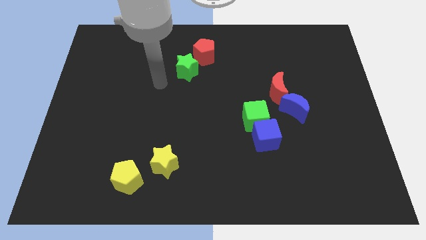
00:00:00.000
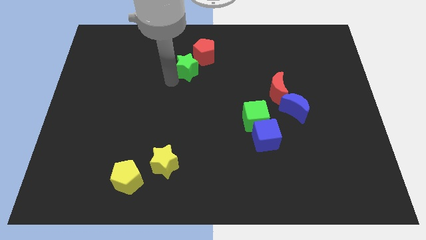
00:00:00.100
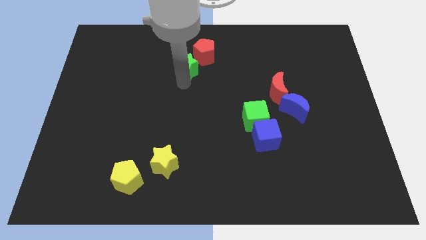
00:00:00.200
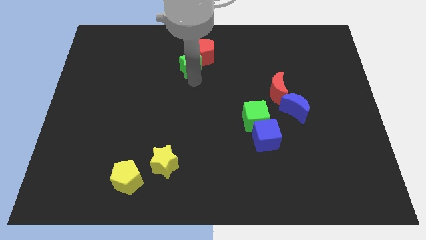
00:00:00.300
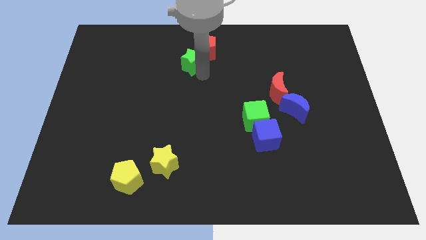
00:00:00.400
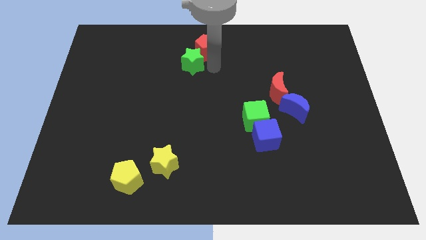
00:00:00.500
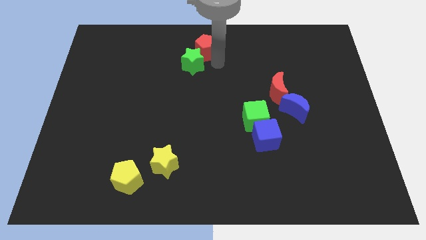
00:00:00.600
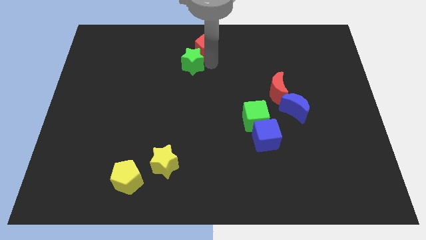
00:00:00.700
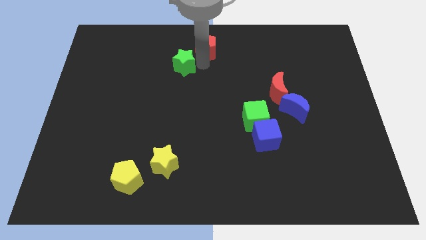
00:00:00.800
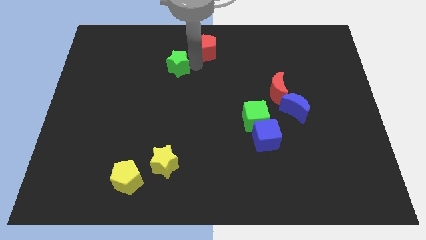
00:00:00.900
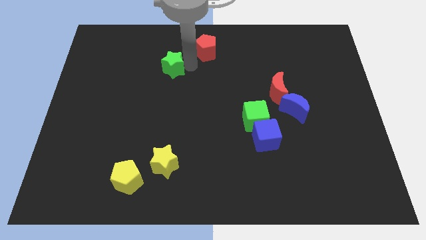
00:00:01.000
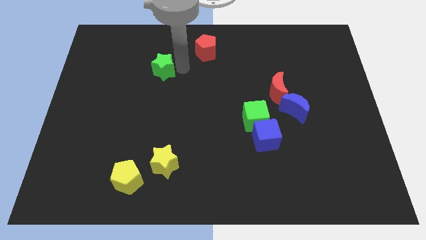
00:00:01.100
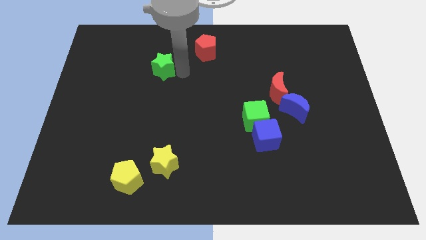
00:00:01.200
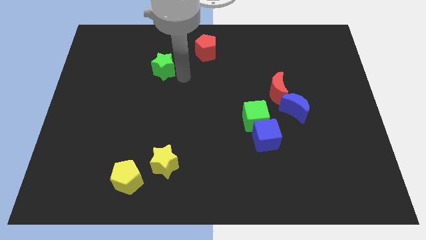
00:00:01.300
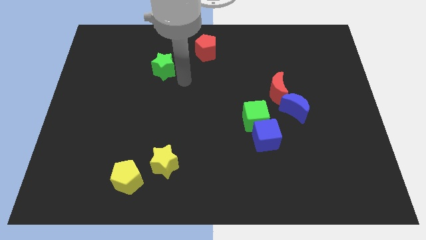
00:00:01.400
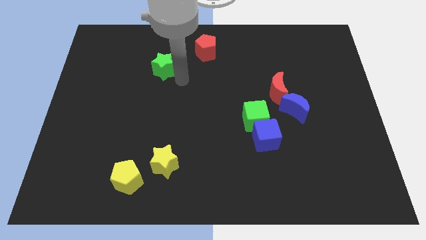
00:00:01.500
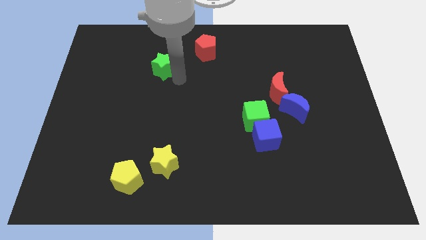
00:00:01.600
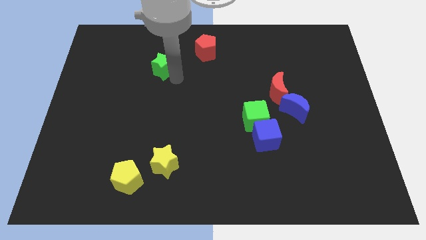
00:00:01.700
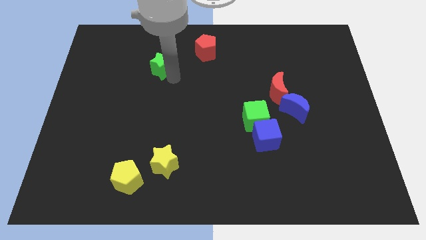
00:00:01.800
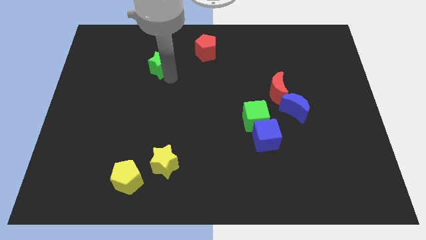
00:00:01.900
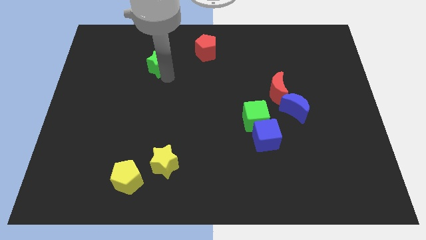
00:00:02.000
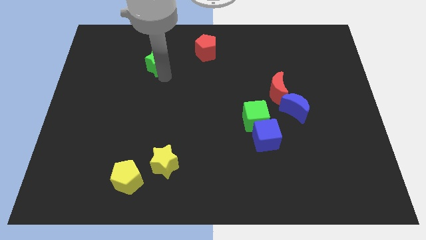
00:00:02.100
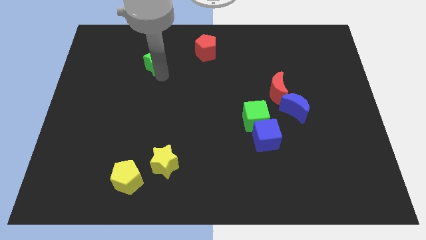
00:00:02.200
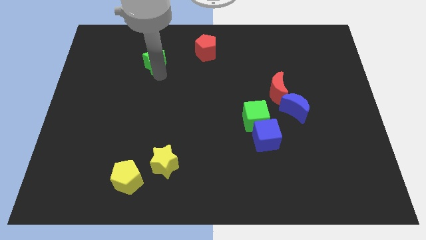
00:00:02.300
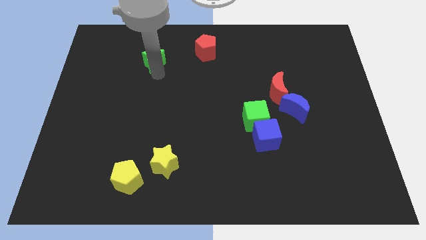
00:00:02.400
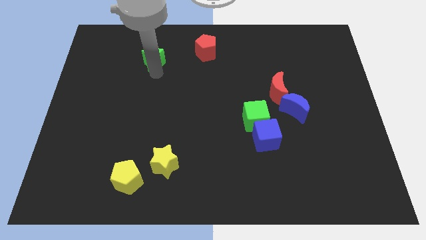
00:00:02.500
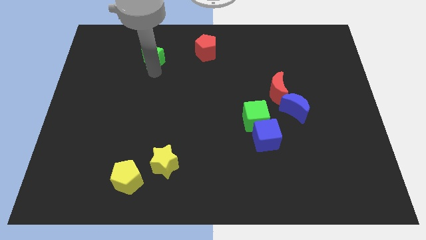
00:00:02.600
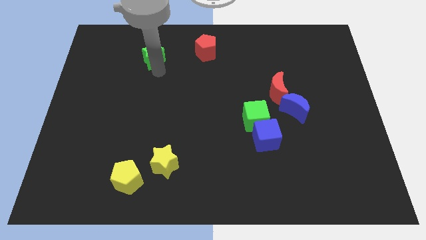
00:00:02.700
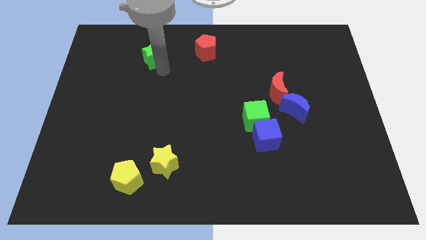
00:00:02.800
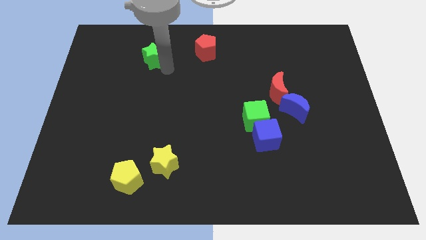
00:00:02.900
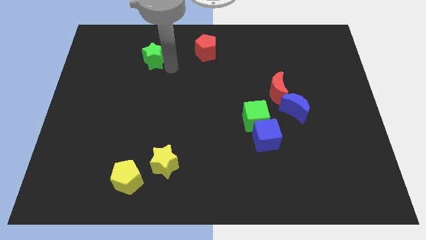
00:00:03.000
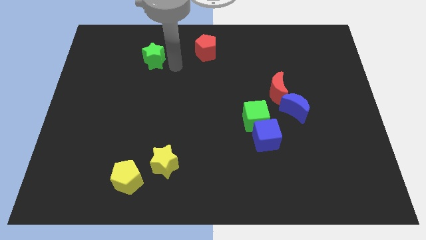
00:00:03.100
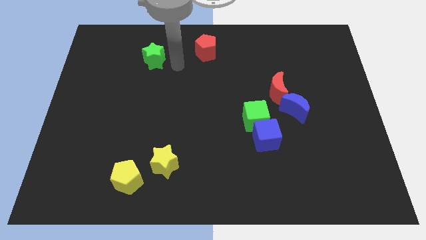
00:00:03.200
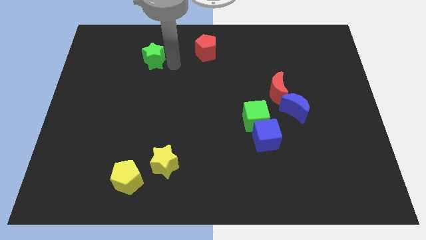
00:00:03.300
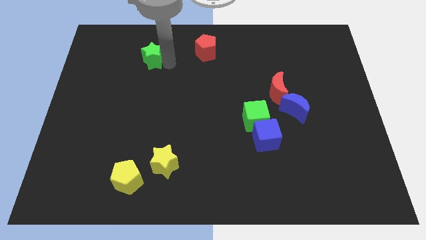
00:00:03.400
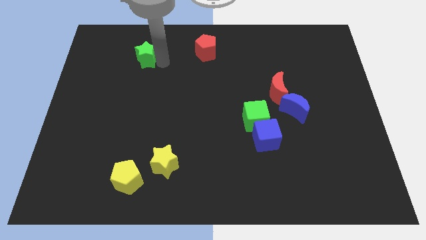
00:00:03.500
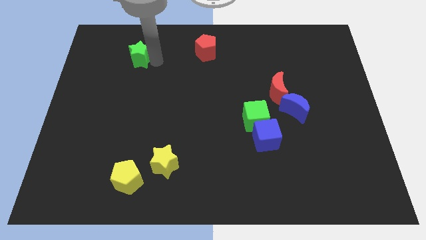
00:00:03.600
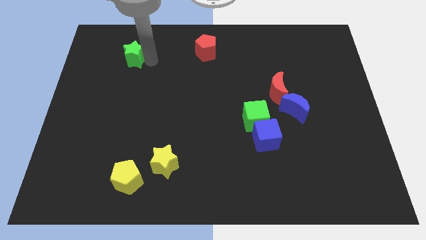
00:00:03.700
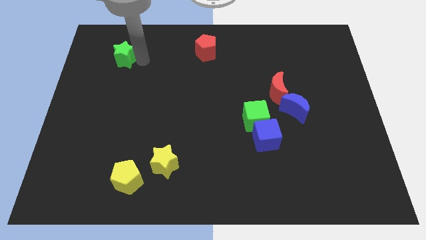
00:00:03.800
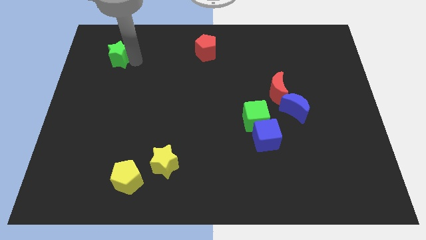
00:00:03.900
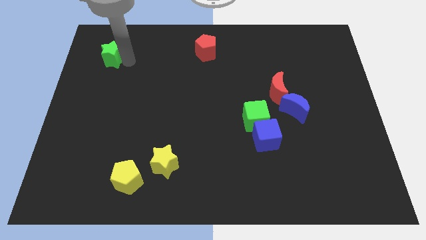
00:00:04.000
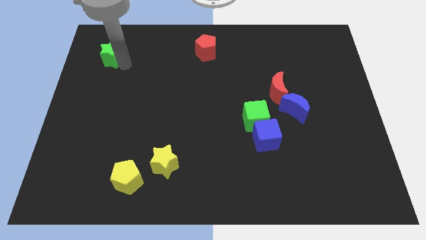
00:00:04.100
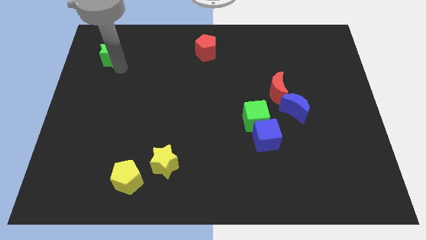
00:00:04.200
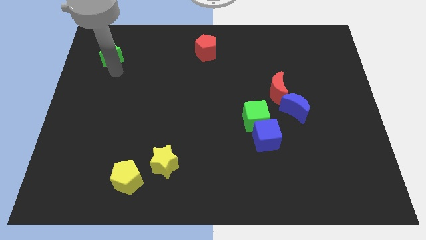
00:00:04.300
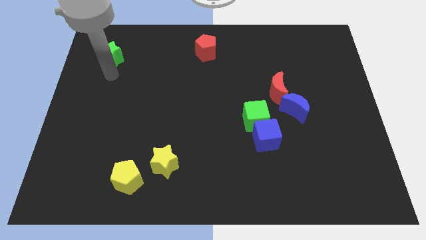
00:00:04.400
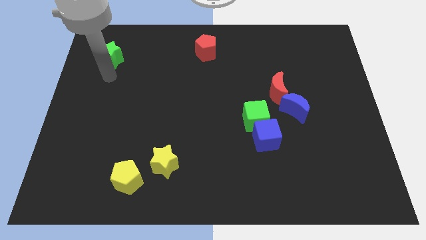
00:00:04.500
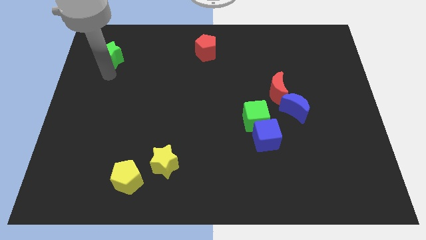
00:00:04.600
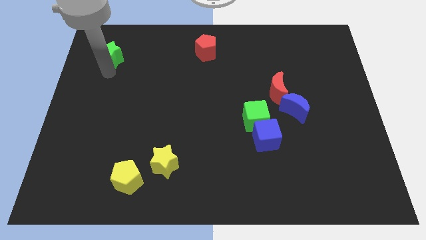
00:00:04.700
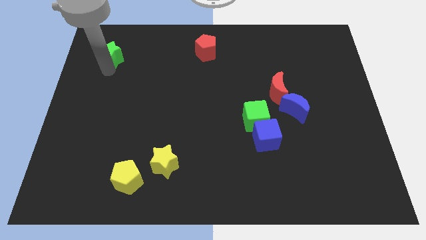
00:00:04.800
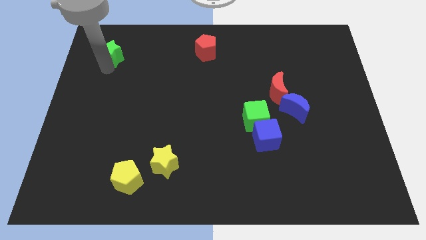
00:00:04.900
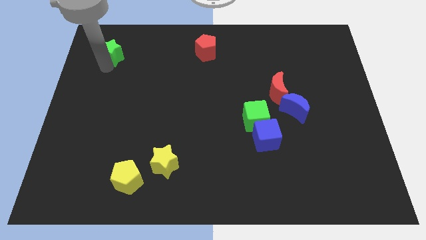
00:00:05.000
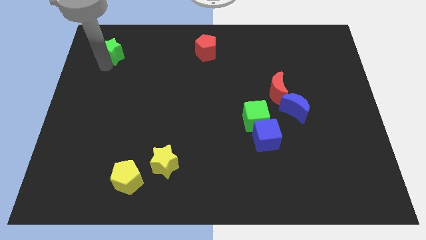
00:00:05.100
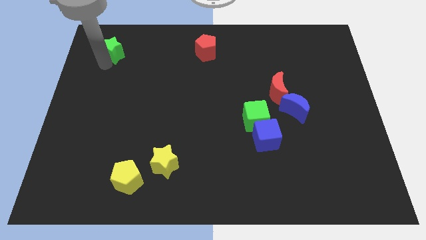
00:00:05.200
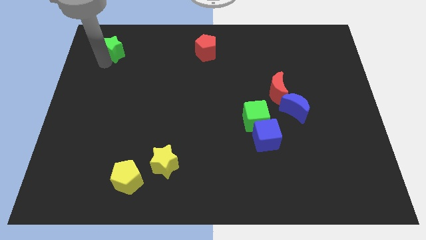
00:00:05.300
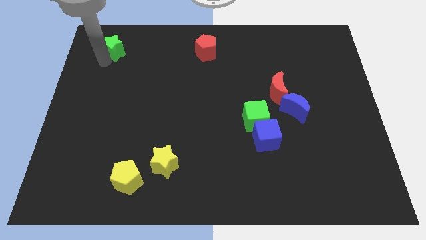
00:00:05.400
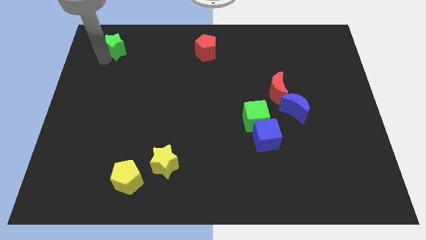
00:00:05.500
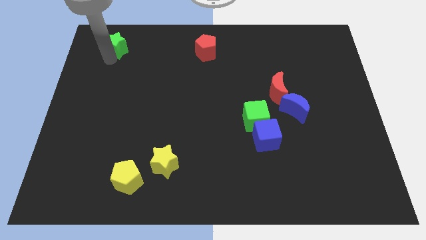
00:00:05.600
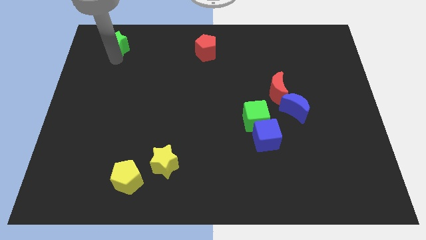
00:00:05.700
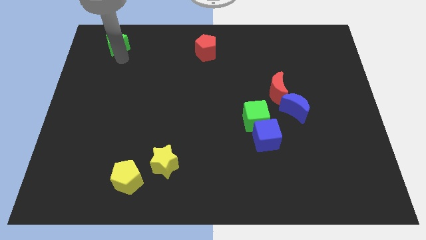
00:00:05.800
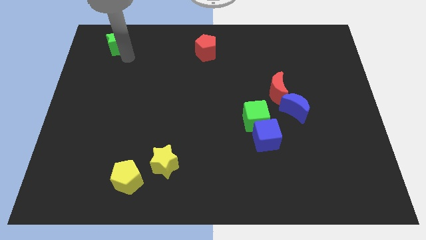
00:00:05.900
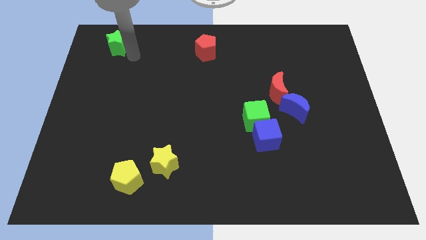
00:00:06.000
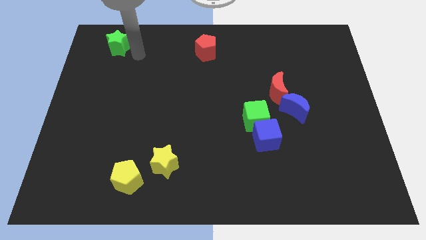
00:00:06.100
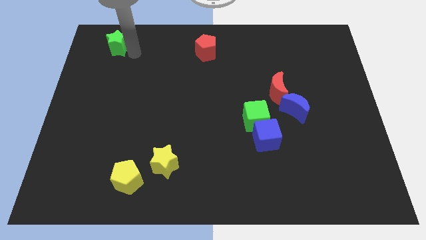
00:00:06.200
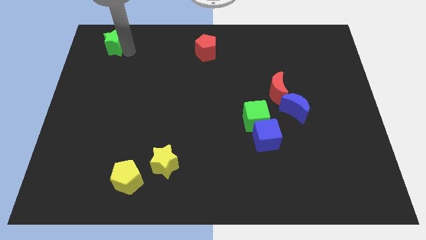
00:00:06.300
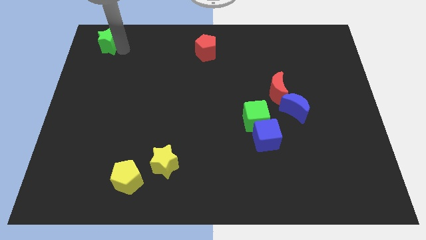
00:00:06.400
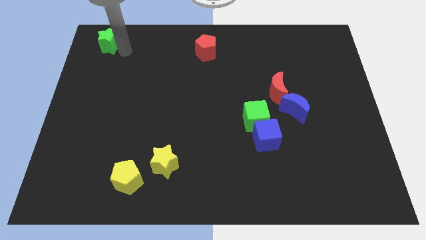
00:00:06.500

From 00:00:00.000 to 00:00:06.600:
put the green star to the top left
